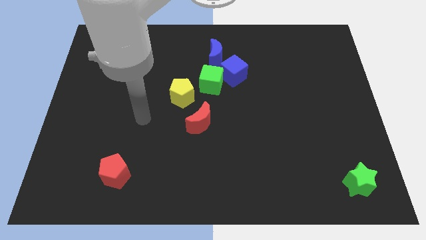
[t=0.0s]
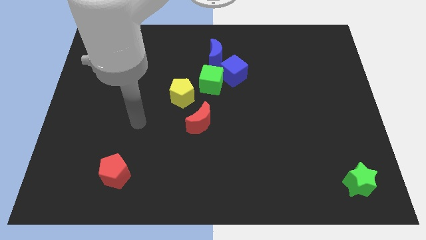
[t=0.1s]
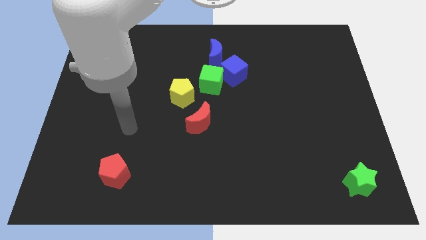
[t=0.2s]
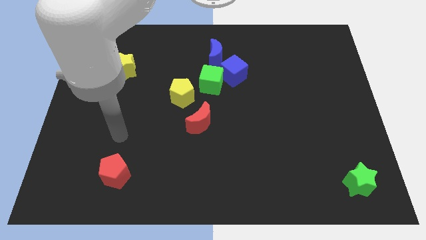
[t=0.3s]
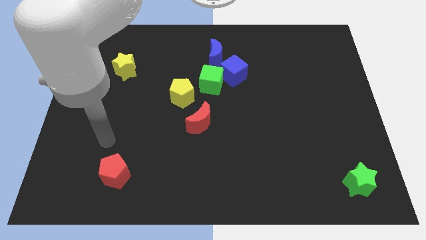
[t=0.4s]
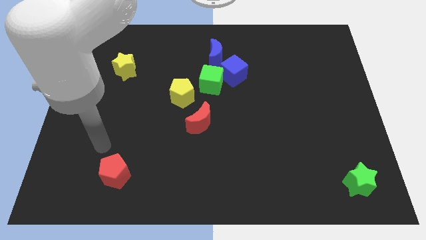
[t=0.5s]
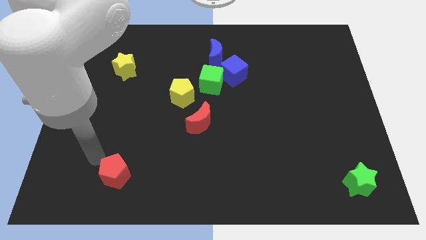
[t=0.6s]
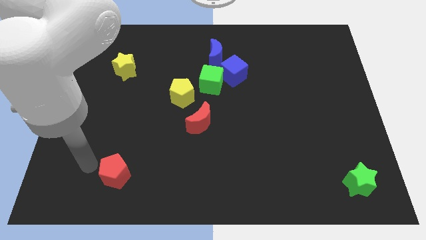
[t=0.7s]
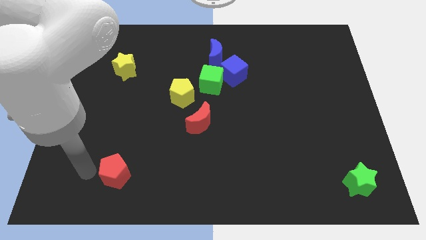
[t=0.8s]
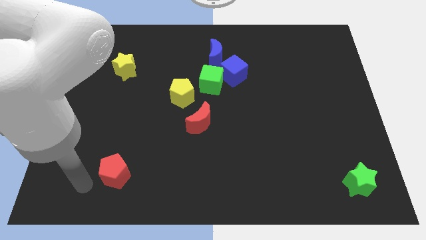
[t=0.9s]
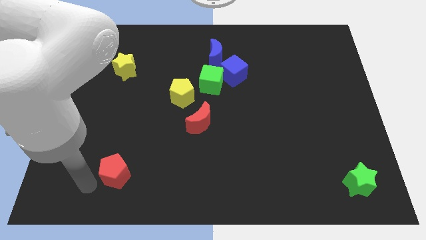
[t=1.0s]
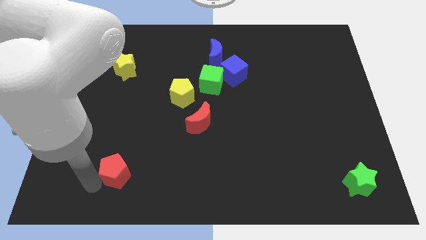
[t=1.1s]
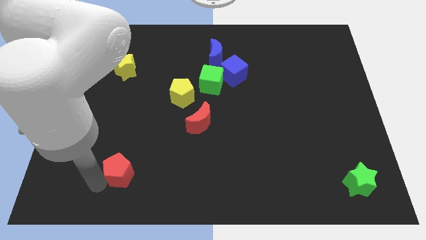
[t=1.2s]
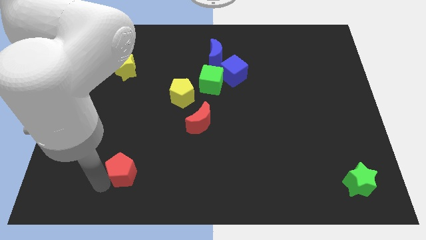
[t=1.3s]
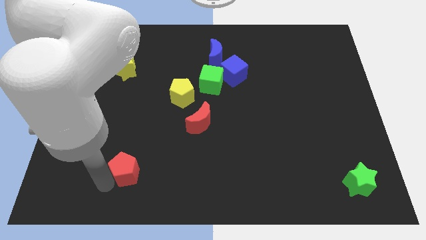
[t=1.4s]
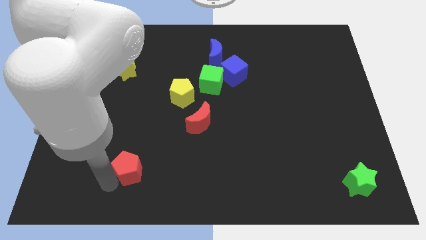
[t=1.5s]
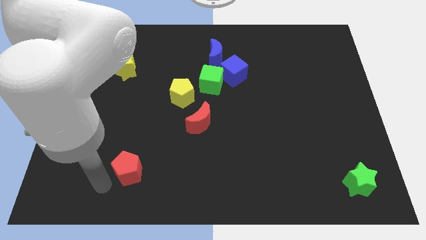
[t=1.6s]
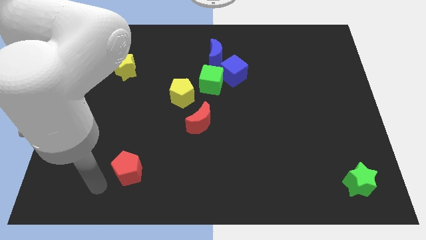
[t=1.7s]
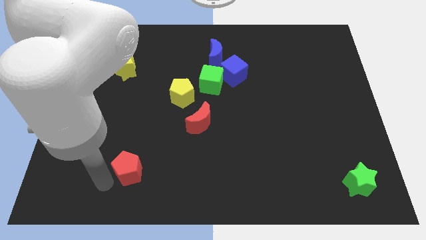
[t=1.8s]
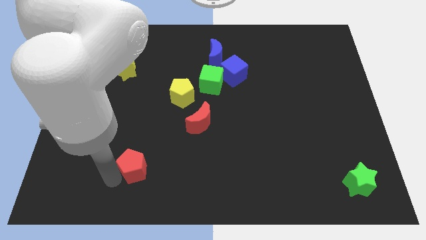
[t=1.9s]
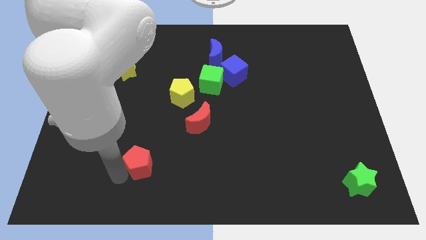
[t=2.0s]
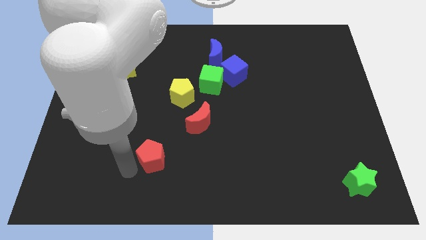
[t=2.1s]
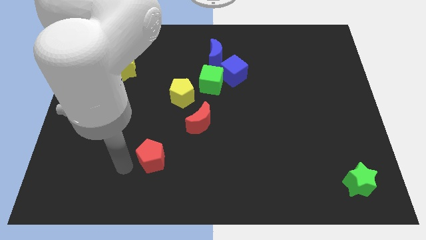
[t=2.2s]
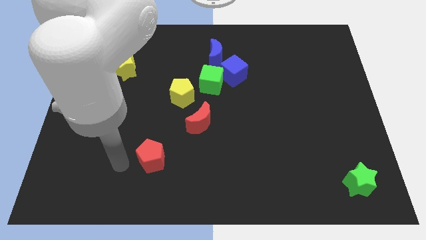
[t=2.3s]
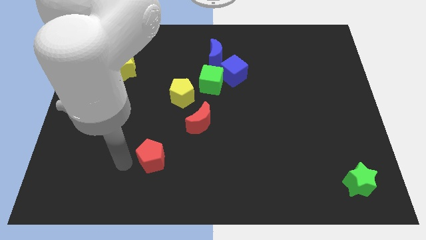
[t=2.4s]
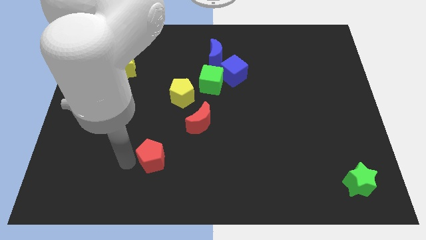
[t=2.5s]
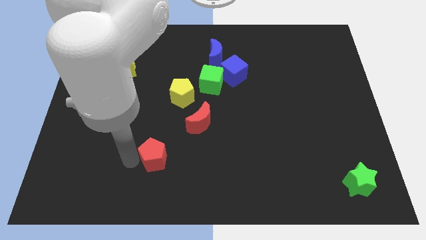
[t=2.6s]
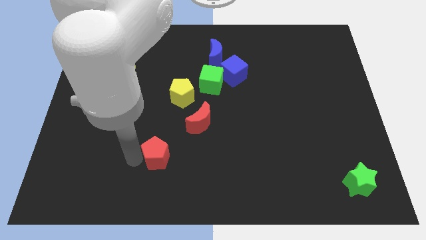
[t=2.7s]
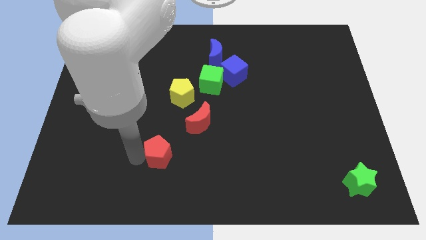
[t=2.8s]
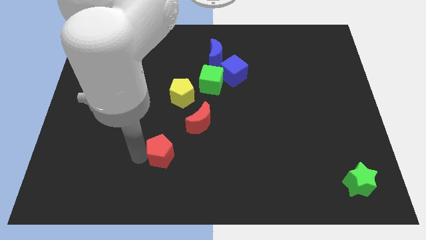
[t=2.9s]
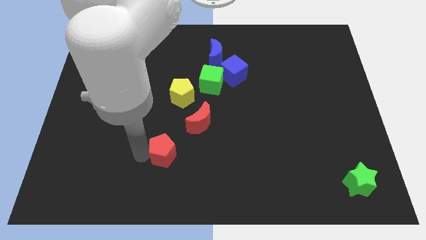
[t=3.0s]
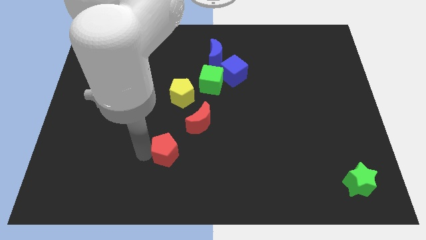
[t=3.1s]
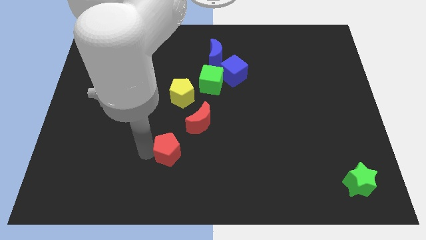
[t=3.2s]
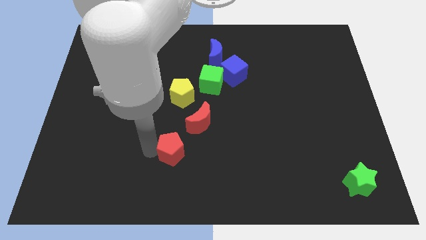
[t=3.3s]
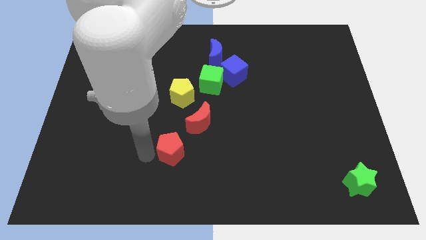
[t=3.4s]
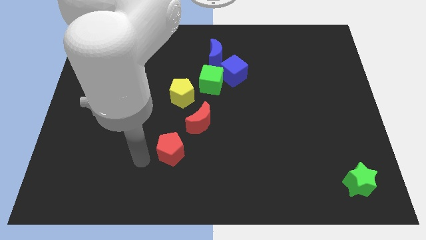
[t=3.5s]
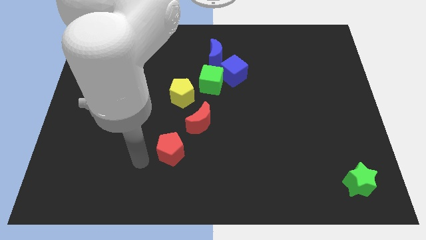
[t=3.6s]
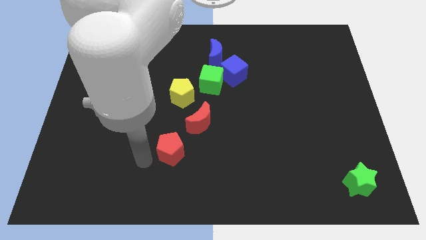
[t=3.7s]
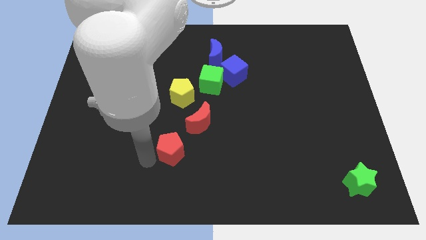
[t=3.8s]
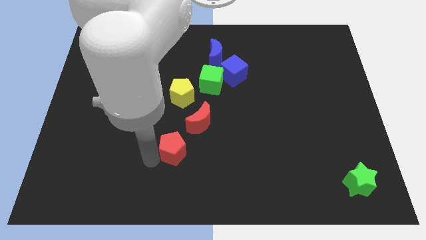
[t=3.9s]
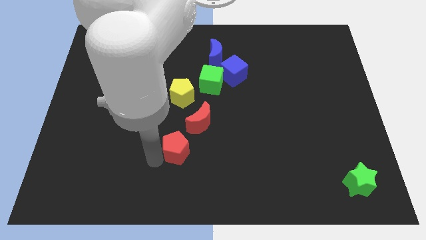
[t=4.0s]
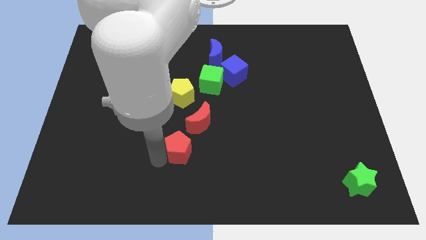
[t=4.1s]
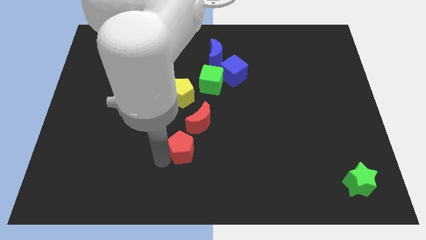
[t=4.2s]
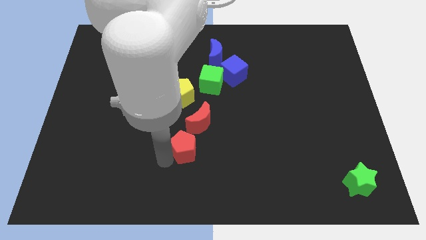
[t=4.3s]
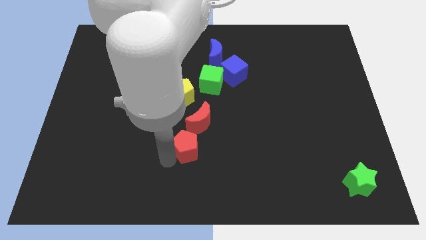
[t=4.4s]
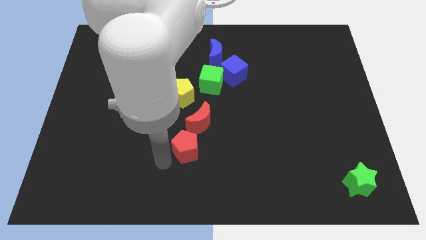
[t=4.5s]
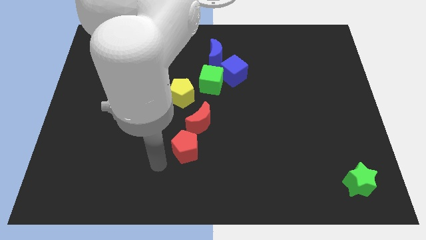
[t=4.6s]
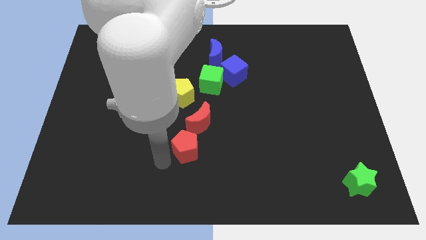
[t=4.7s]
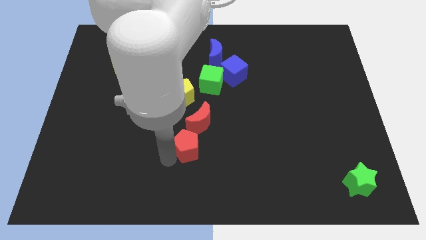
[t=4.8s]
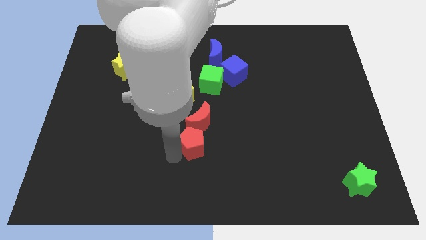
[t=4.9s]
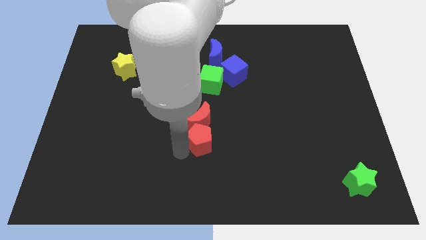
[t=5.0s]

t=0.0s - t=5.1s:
put the red pentagon to the middle

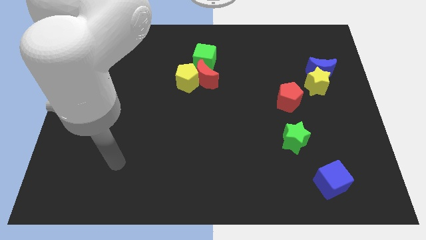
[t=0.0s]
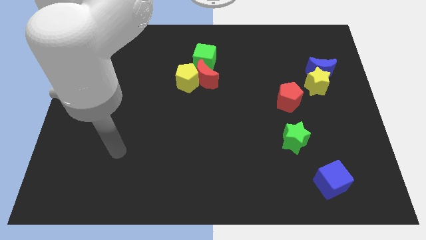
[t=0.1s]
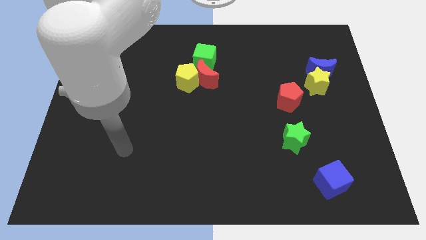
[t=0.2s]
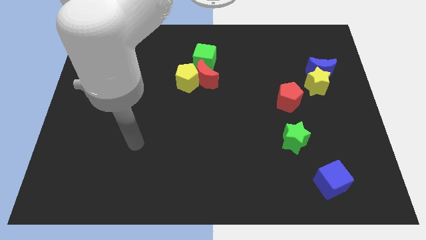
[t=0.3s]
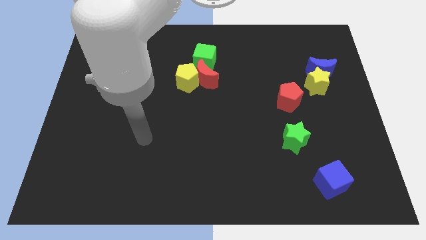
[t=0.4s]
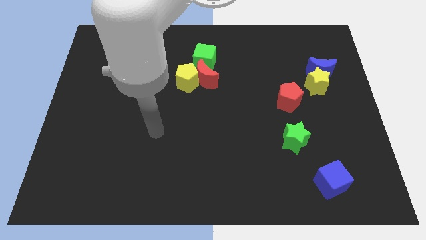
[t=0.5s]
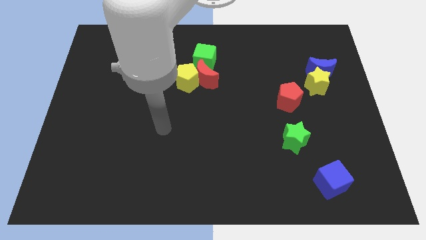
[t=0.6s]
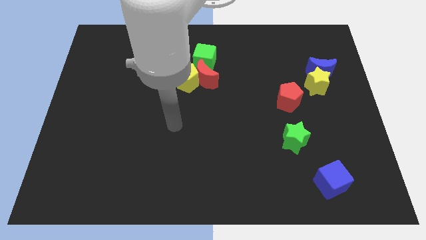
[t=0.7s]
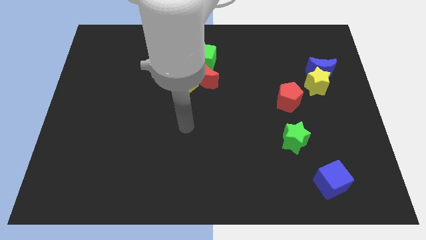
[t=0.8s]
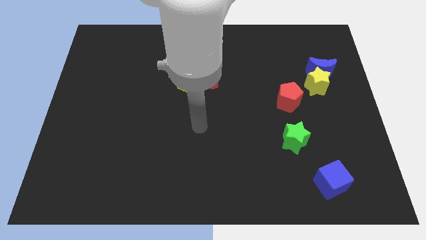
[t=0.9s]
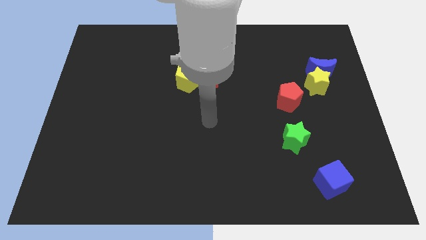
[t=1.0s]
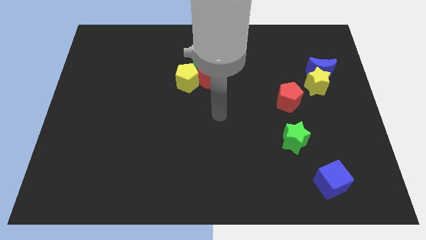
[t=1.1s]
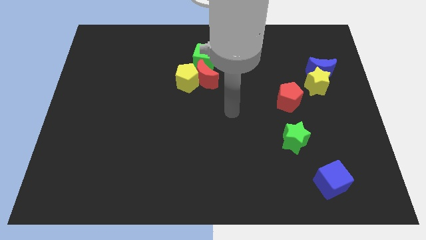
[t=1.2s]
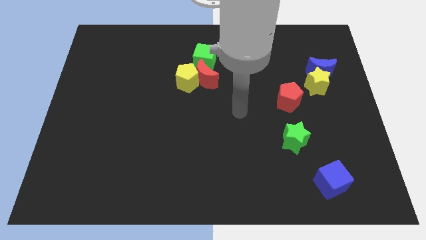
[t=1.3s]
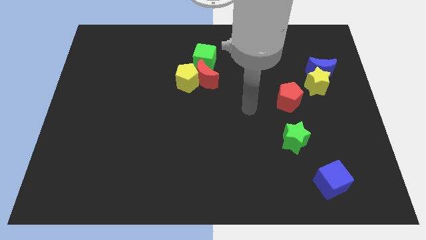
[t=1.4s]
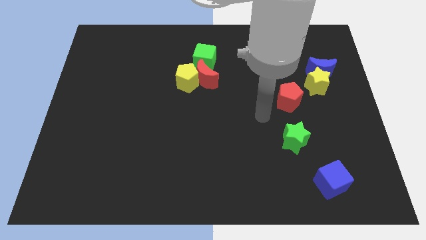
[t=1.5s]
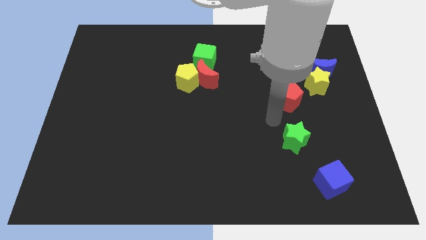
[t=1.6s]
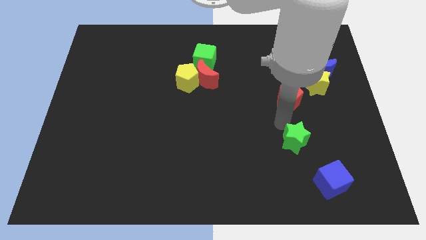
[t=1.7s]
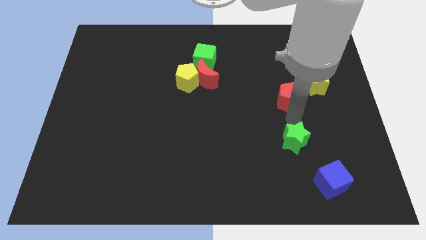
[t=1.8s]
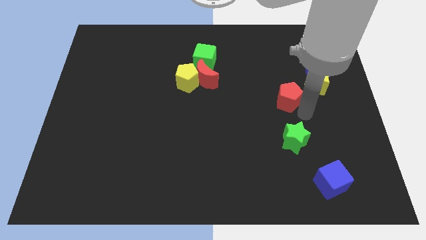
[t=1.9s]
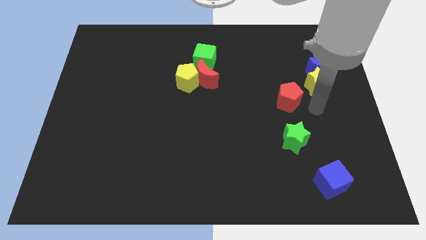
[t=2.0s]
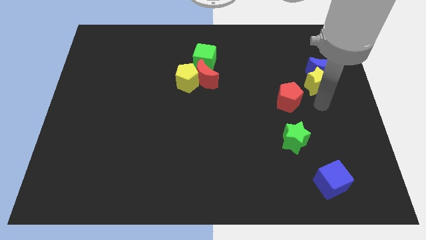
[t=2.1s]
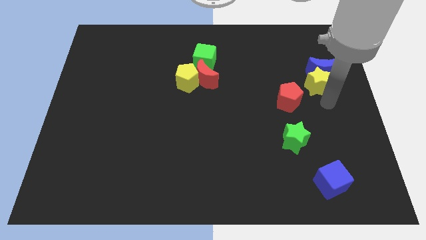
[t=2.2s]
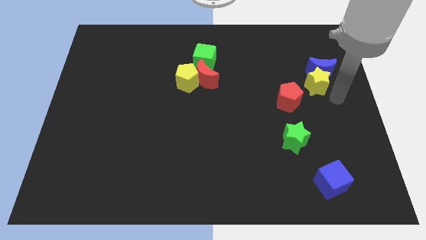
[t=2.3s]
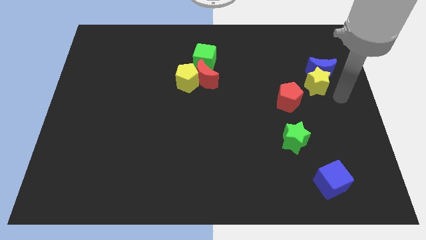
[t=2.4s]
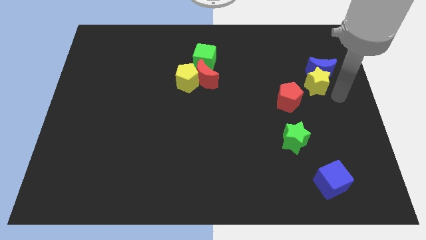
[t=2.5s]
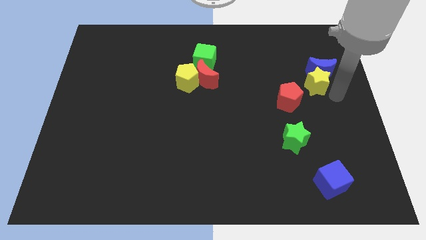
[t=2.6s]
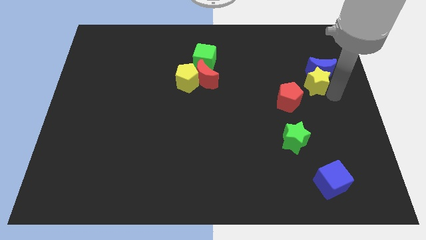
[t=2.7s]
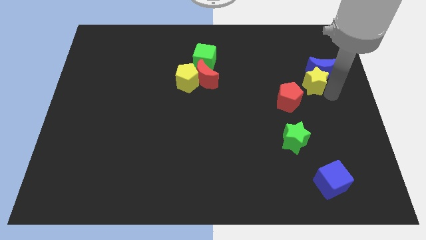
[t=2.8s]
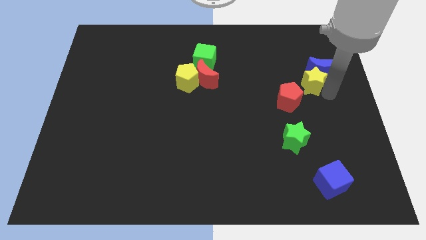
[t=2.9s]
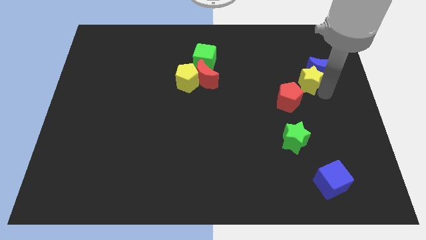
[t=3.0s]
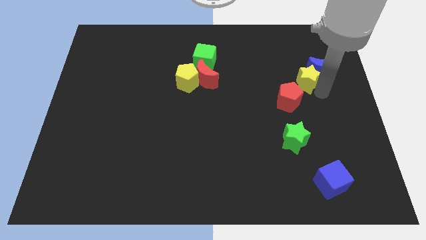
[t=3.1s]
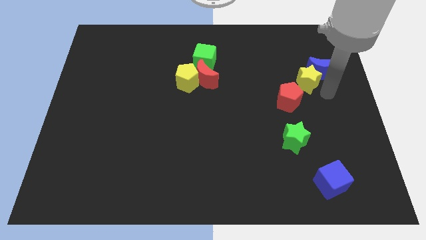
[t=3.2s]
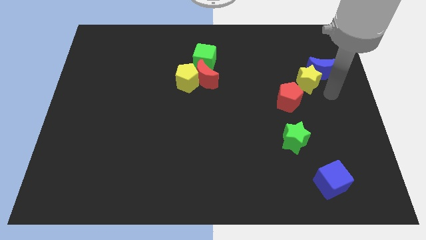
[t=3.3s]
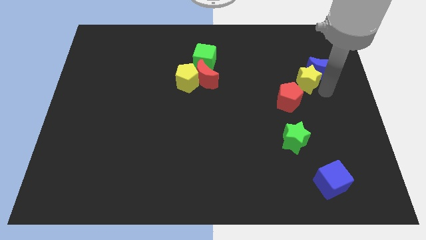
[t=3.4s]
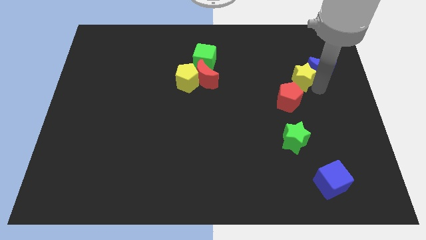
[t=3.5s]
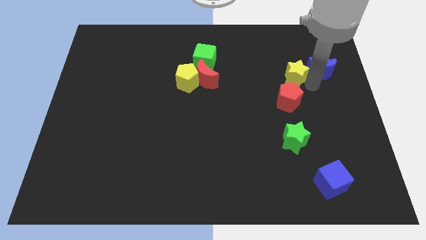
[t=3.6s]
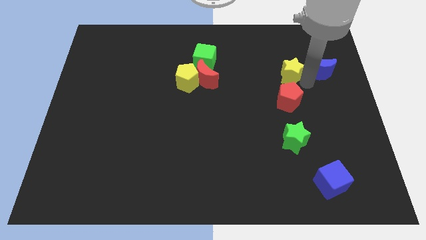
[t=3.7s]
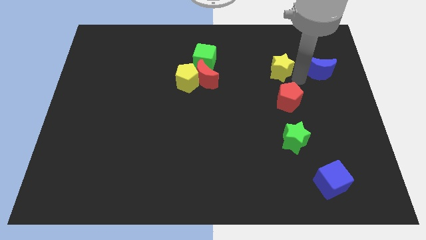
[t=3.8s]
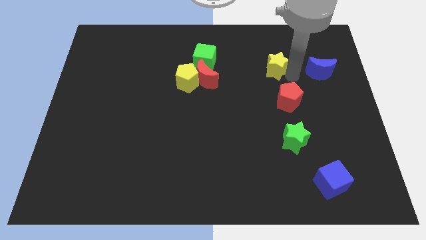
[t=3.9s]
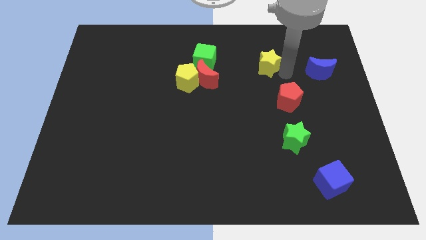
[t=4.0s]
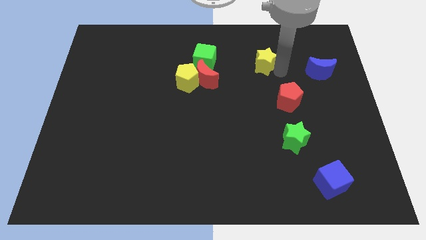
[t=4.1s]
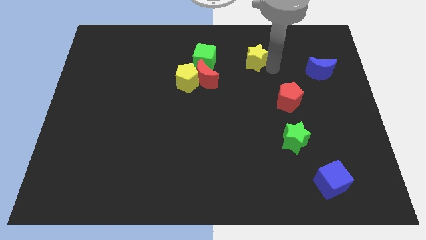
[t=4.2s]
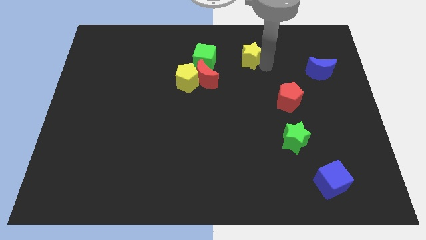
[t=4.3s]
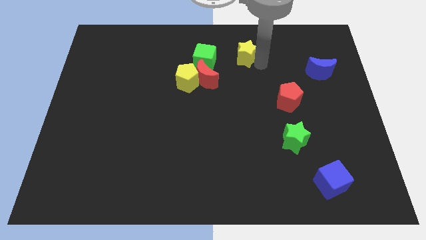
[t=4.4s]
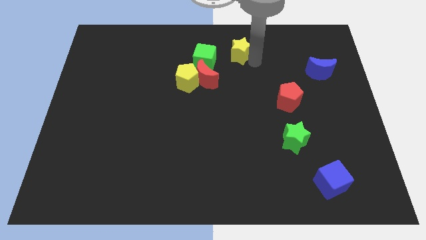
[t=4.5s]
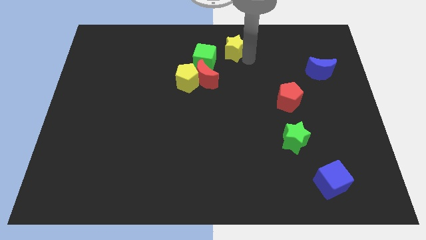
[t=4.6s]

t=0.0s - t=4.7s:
move the yellow star to the top
